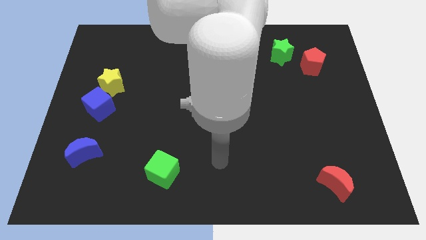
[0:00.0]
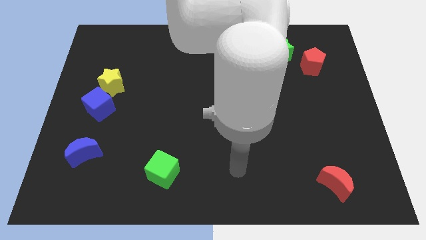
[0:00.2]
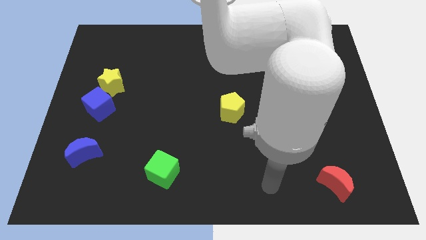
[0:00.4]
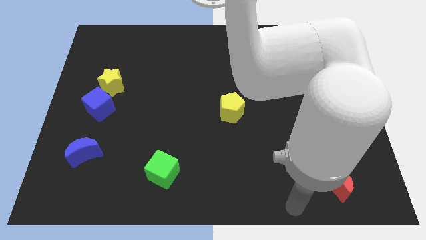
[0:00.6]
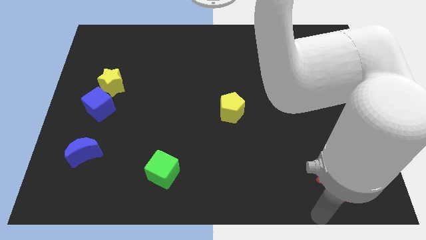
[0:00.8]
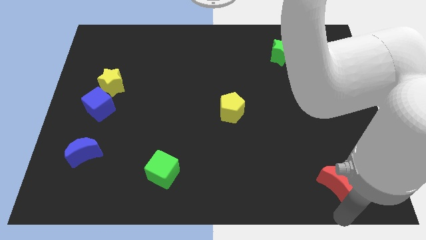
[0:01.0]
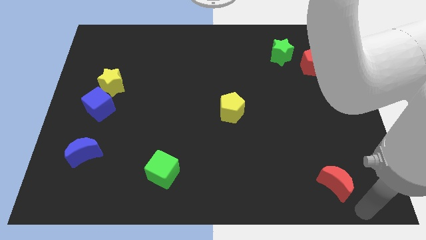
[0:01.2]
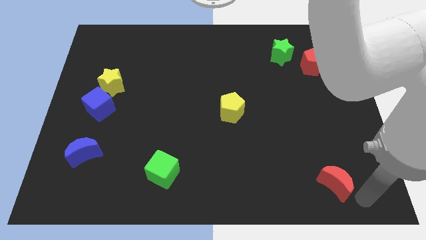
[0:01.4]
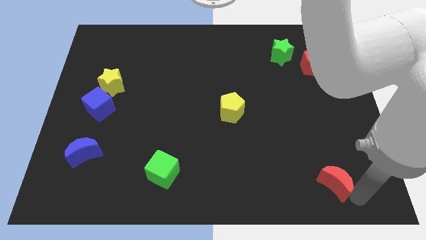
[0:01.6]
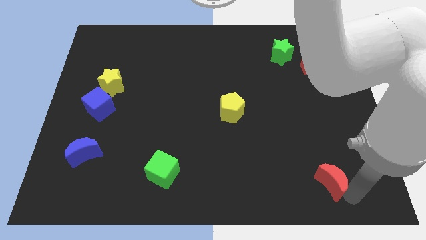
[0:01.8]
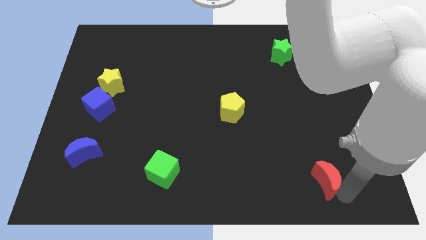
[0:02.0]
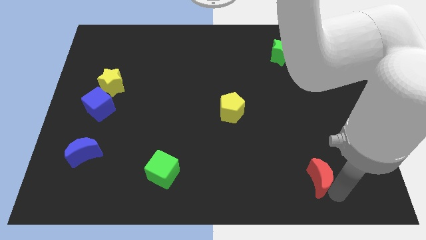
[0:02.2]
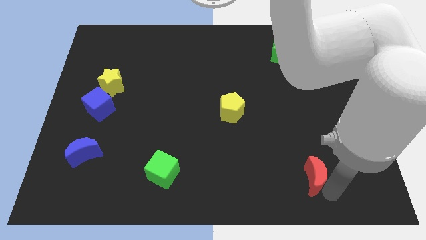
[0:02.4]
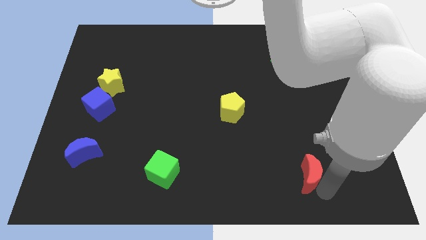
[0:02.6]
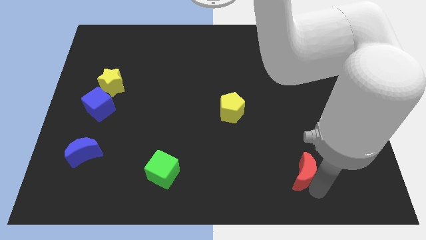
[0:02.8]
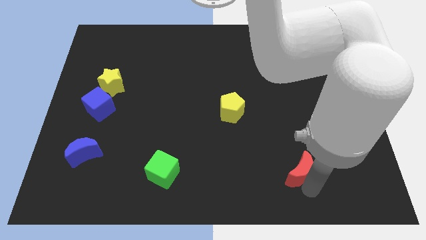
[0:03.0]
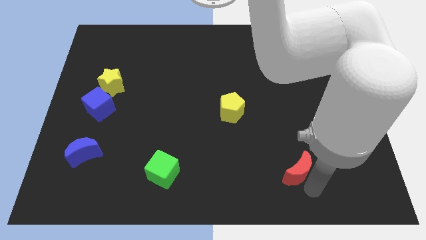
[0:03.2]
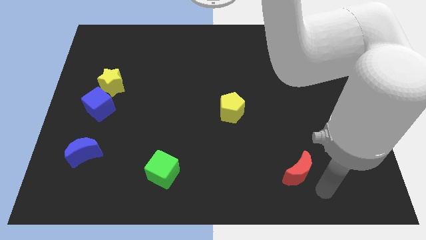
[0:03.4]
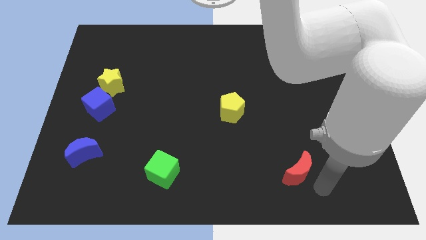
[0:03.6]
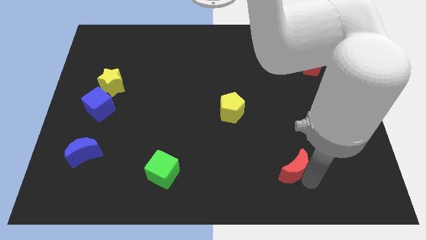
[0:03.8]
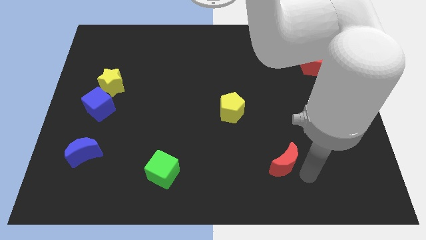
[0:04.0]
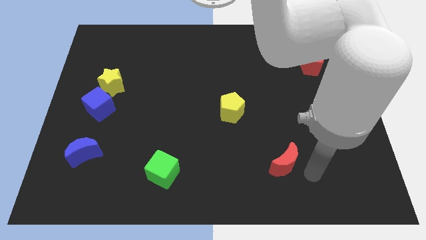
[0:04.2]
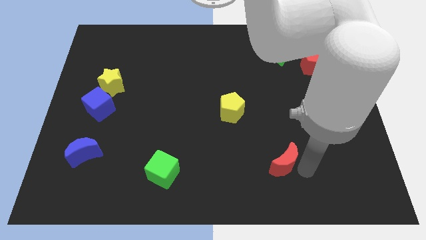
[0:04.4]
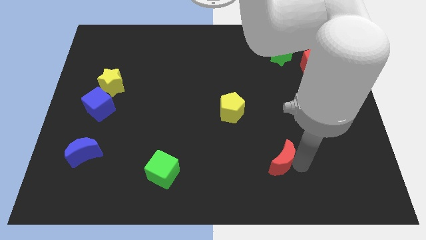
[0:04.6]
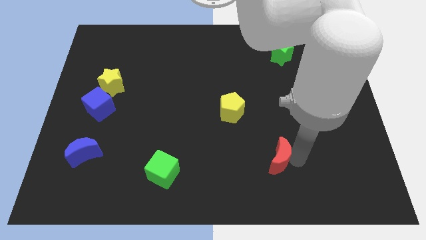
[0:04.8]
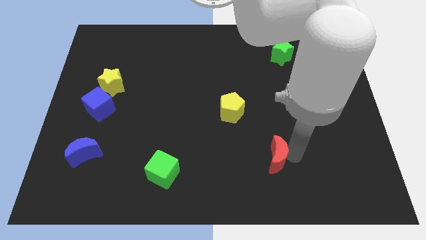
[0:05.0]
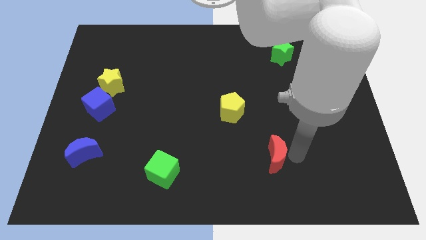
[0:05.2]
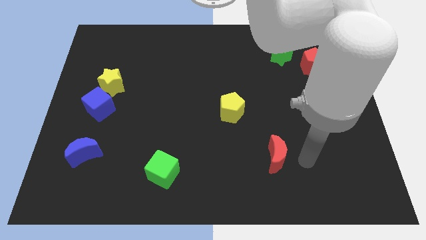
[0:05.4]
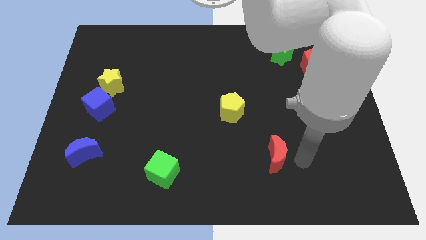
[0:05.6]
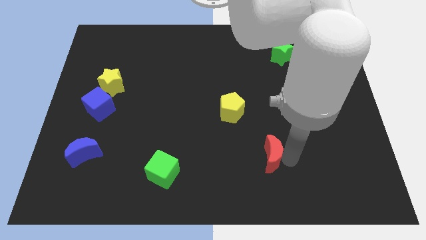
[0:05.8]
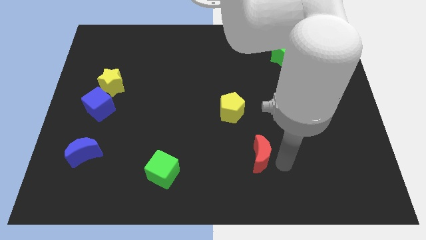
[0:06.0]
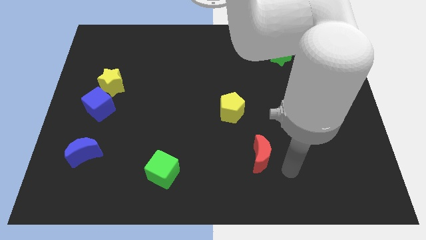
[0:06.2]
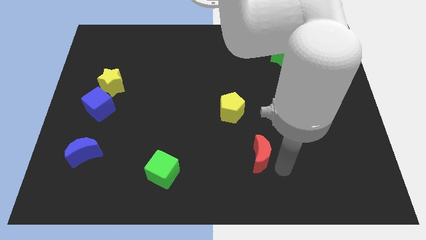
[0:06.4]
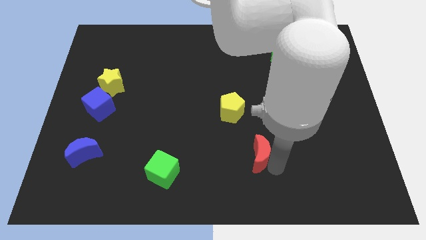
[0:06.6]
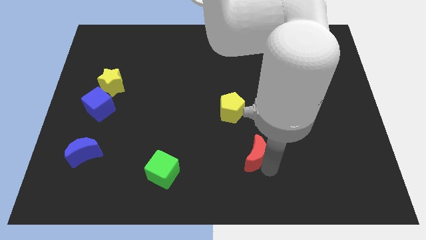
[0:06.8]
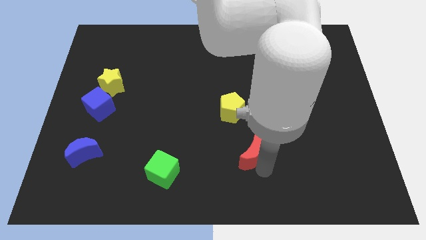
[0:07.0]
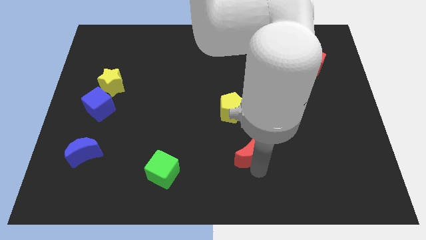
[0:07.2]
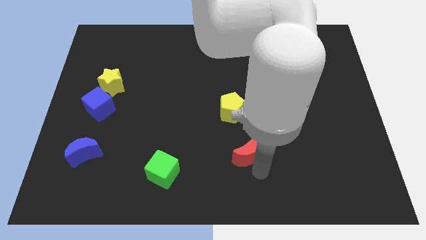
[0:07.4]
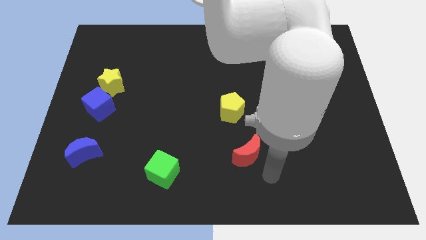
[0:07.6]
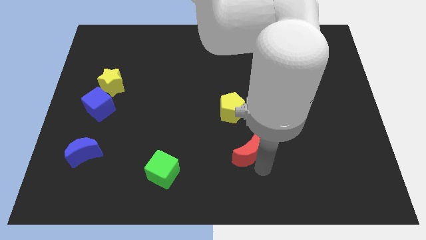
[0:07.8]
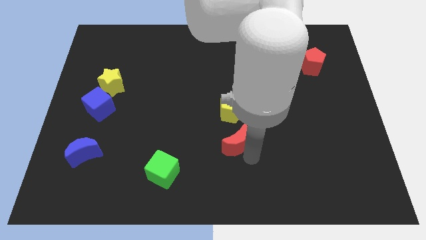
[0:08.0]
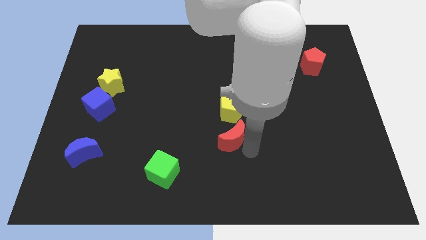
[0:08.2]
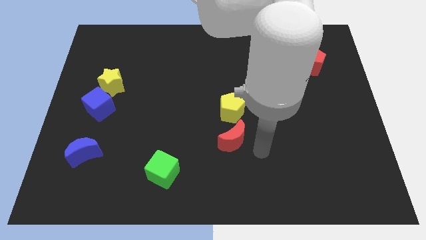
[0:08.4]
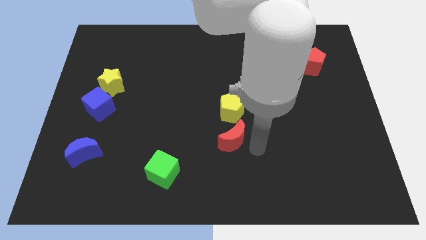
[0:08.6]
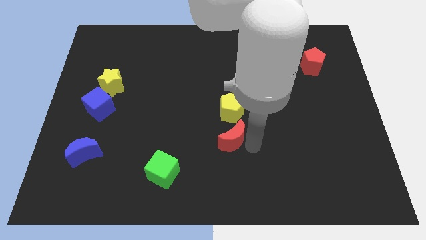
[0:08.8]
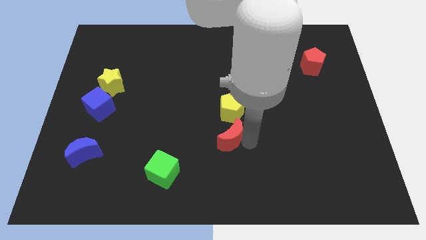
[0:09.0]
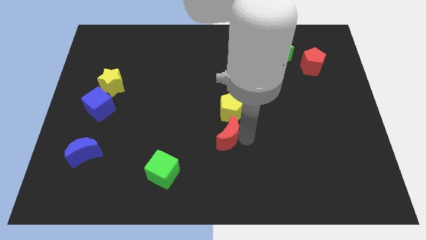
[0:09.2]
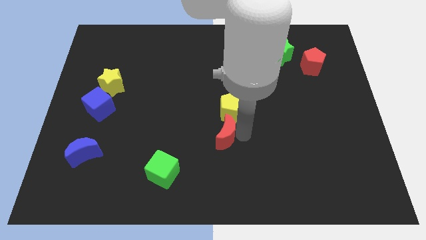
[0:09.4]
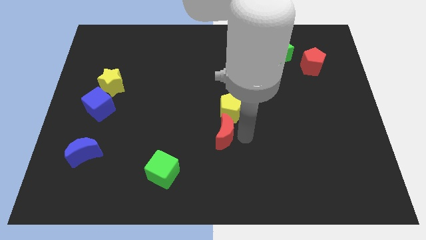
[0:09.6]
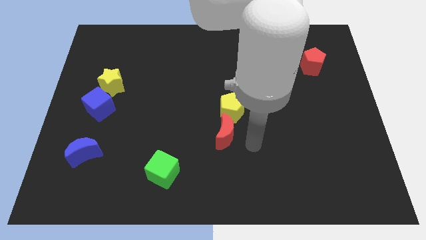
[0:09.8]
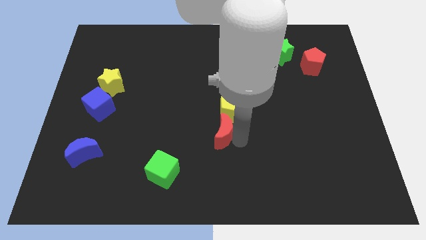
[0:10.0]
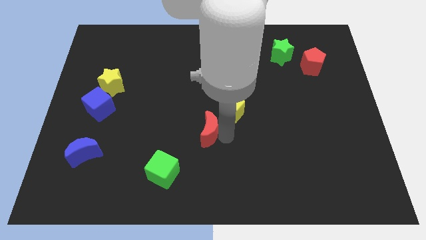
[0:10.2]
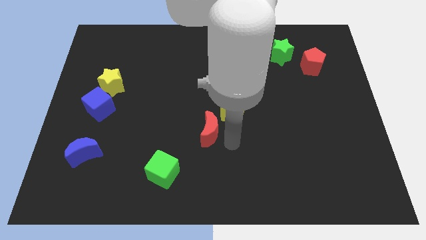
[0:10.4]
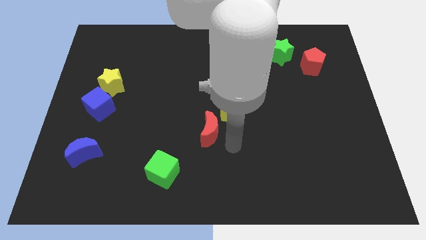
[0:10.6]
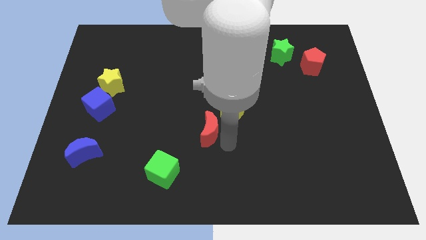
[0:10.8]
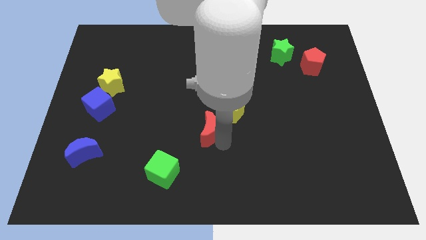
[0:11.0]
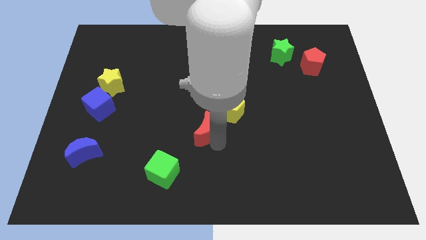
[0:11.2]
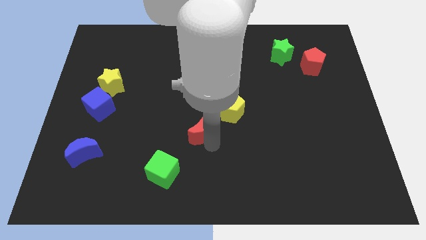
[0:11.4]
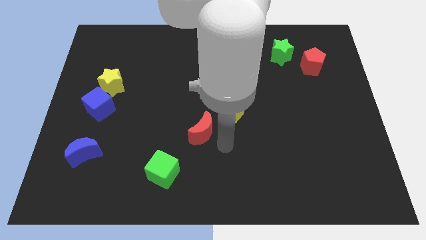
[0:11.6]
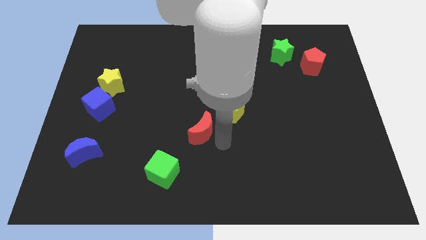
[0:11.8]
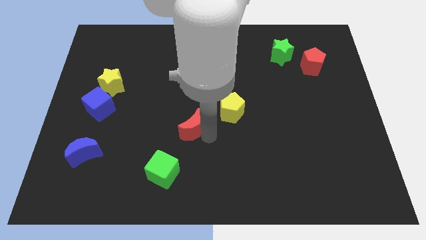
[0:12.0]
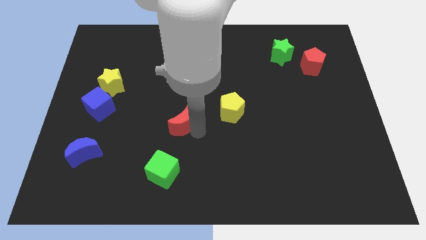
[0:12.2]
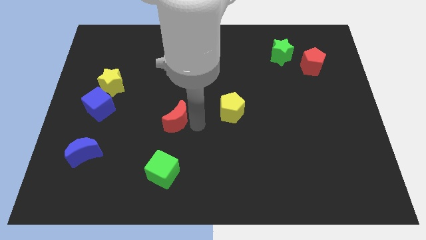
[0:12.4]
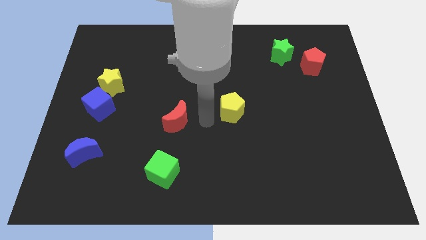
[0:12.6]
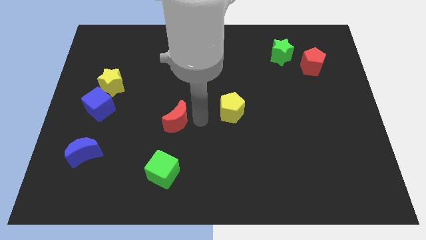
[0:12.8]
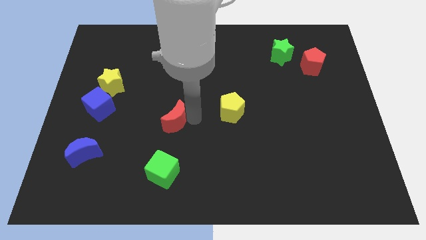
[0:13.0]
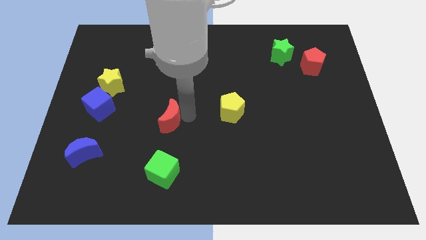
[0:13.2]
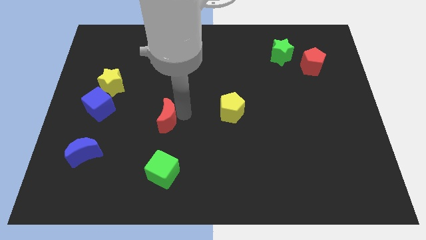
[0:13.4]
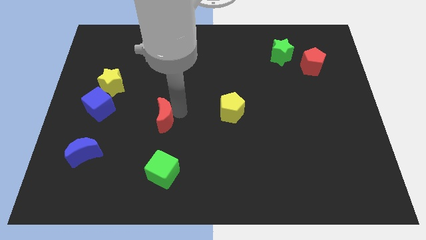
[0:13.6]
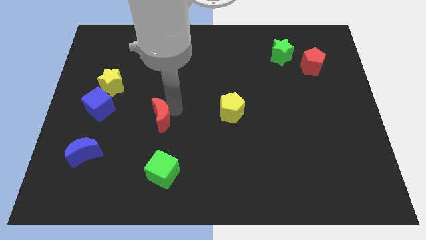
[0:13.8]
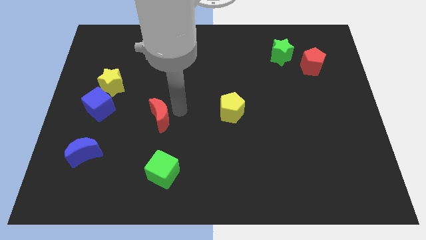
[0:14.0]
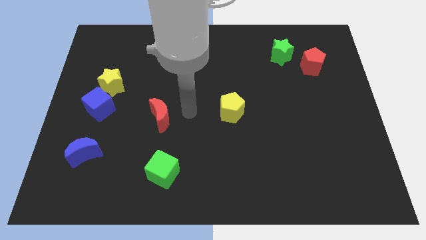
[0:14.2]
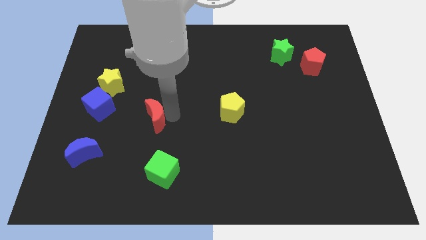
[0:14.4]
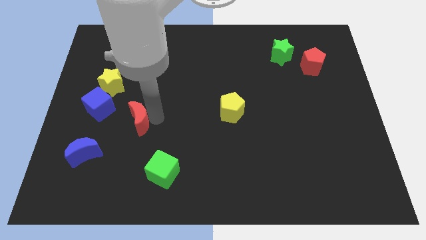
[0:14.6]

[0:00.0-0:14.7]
move the red moon diagonally down and to the right of the blue cube
